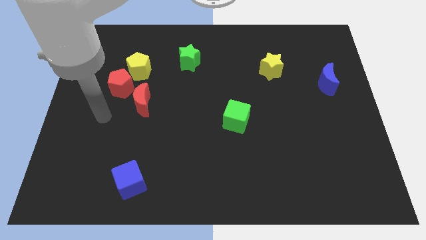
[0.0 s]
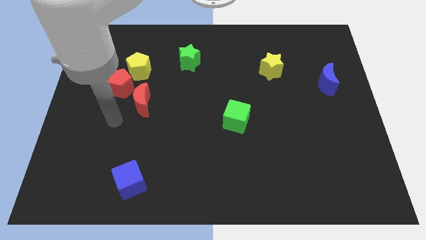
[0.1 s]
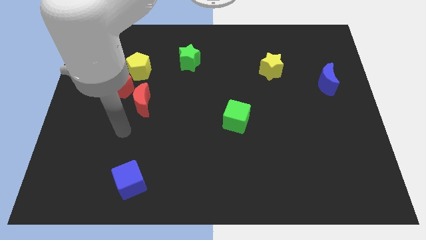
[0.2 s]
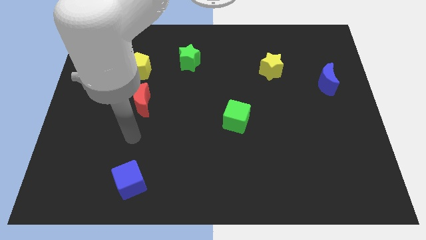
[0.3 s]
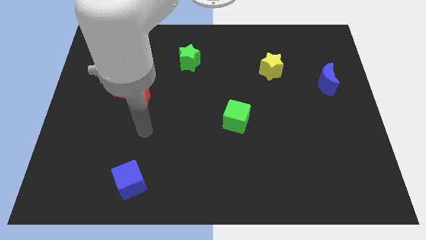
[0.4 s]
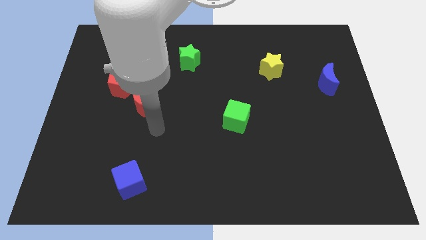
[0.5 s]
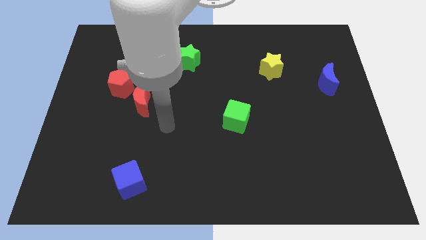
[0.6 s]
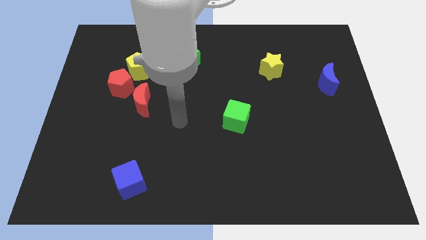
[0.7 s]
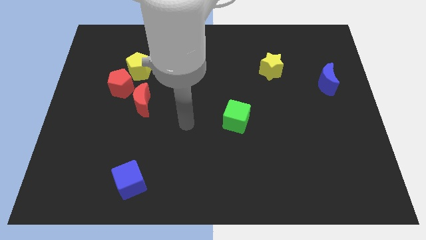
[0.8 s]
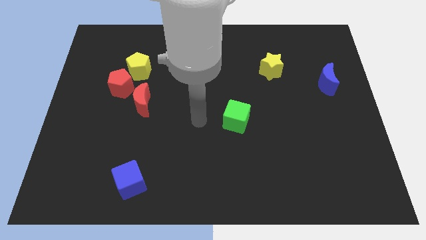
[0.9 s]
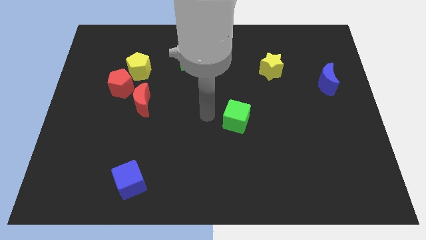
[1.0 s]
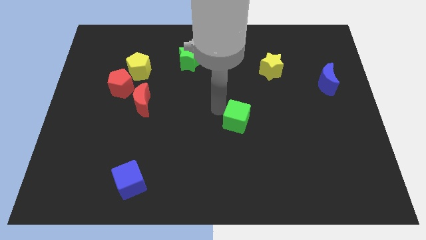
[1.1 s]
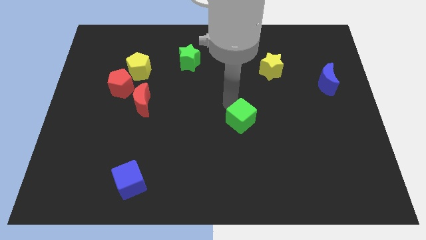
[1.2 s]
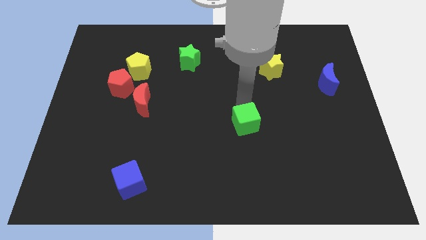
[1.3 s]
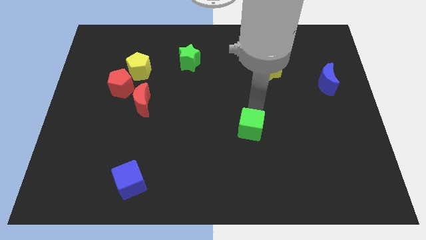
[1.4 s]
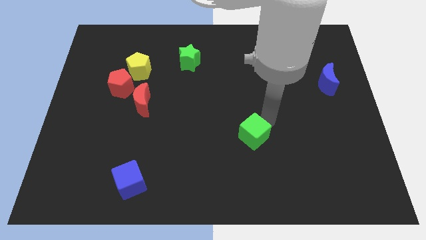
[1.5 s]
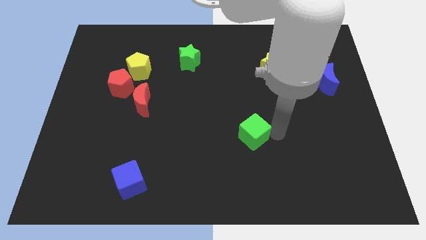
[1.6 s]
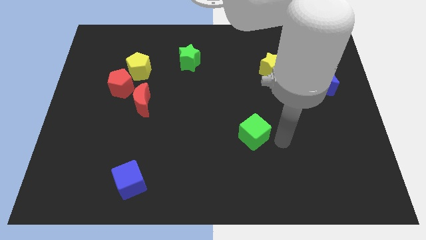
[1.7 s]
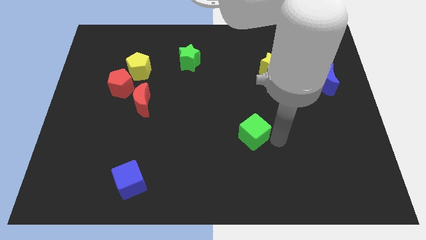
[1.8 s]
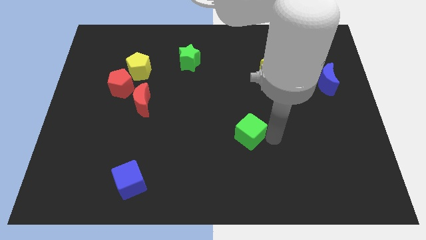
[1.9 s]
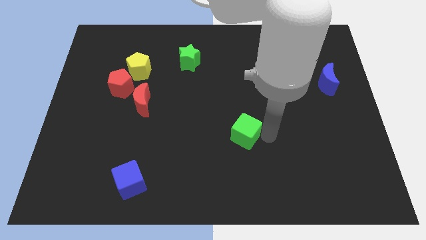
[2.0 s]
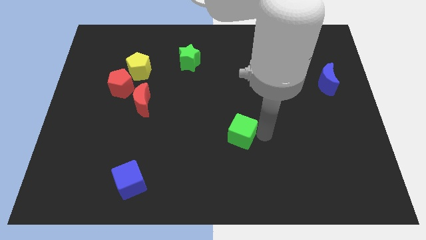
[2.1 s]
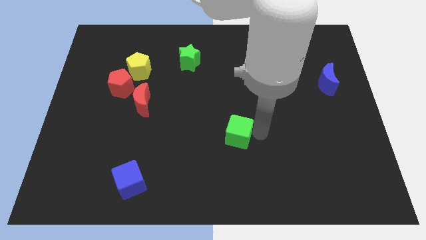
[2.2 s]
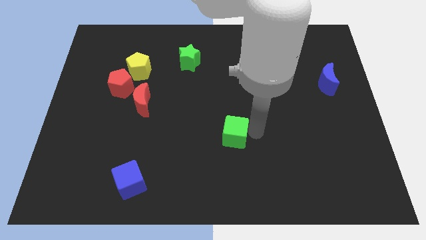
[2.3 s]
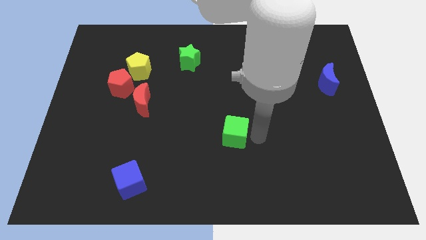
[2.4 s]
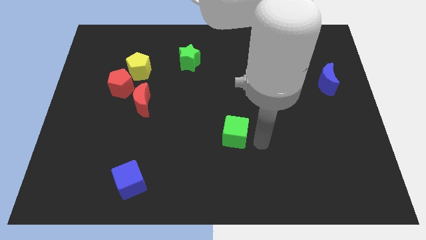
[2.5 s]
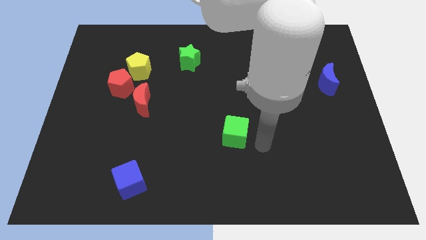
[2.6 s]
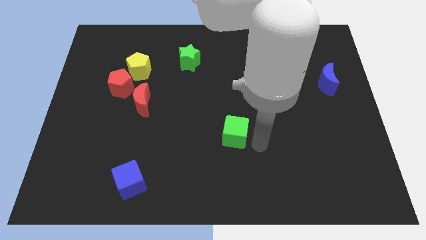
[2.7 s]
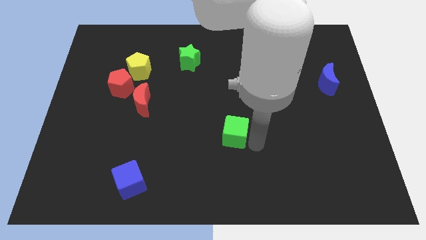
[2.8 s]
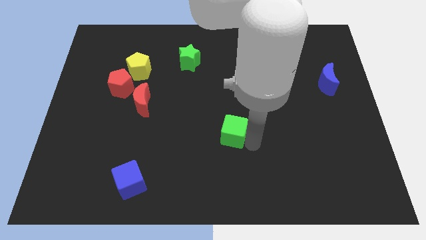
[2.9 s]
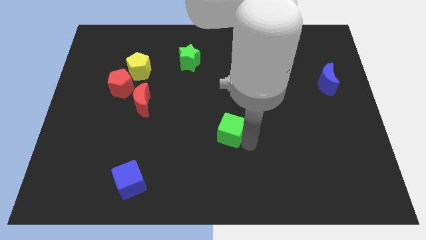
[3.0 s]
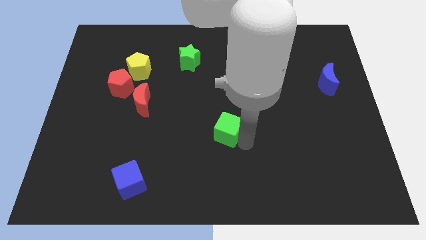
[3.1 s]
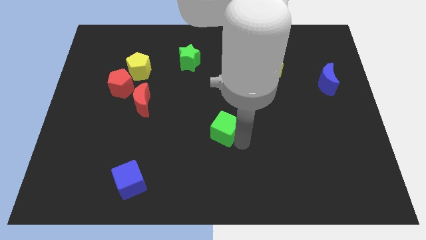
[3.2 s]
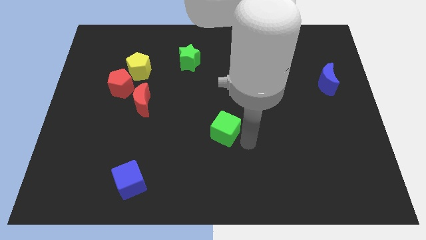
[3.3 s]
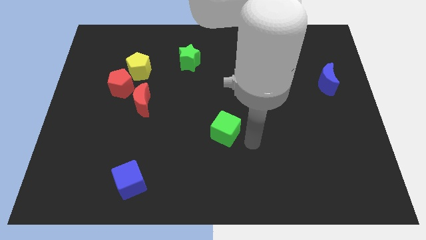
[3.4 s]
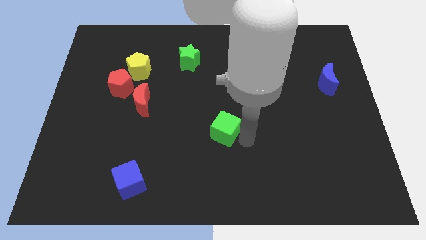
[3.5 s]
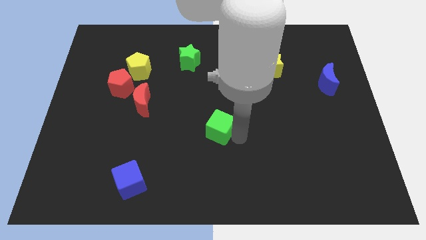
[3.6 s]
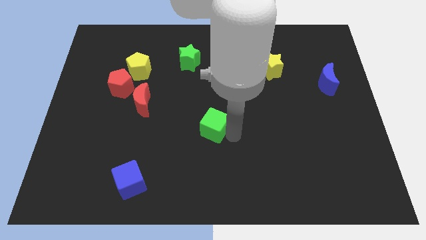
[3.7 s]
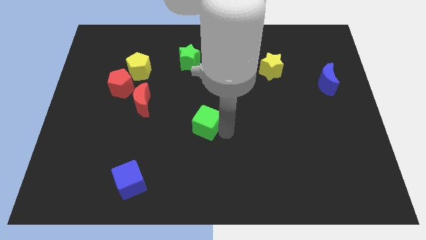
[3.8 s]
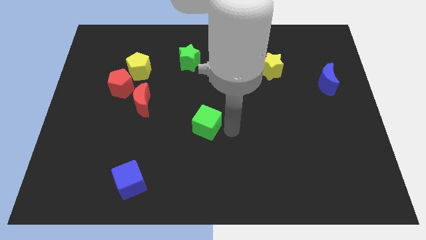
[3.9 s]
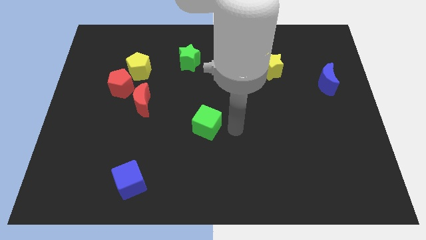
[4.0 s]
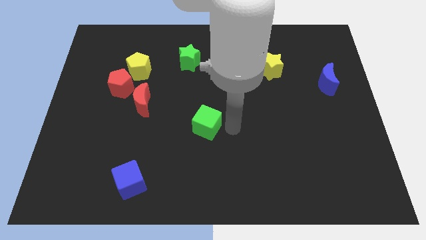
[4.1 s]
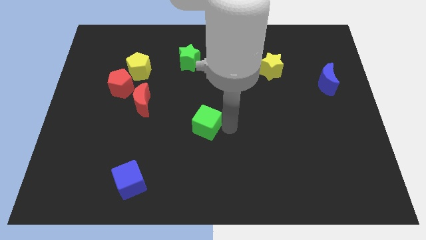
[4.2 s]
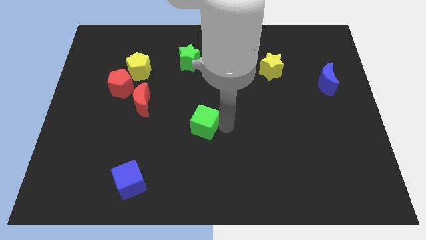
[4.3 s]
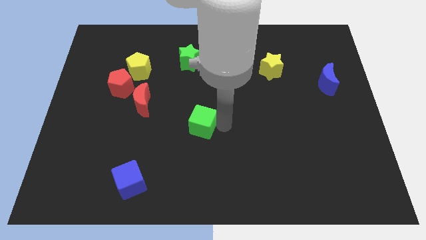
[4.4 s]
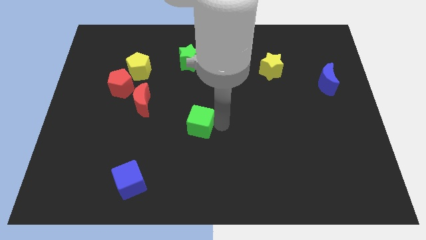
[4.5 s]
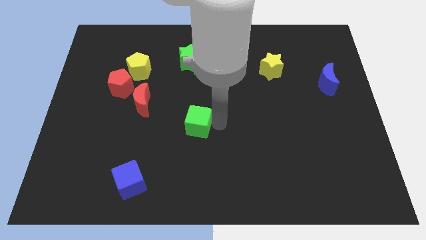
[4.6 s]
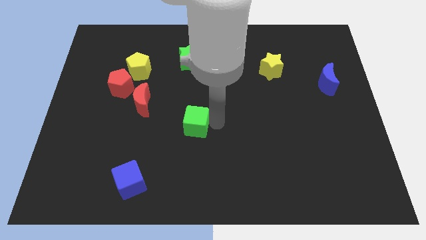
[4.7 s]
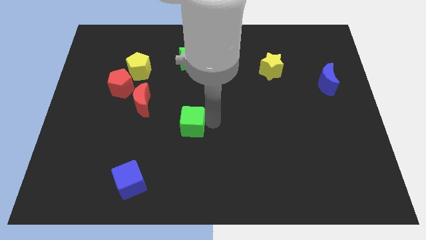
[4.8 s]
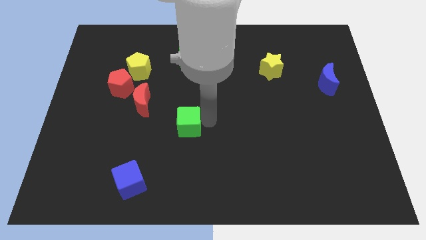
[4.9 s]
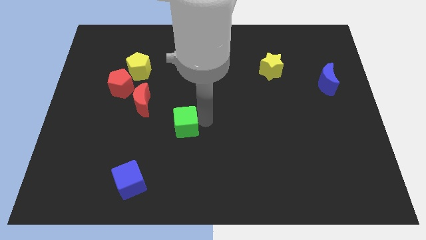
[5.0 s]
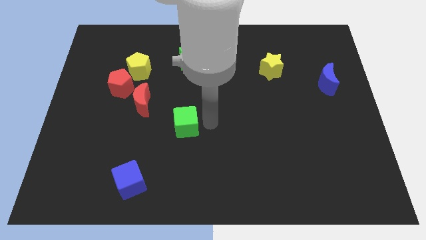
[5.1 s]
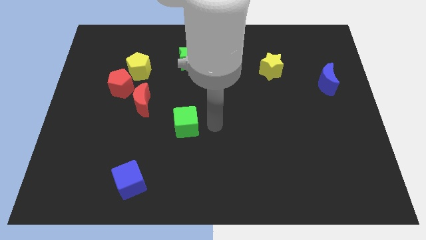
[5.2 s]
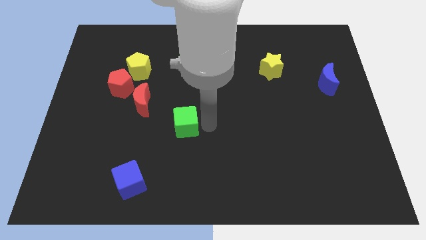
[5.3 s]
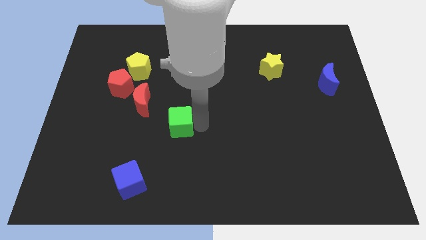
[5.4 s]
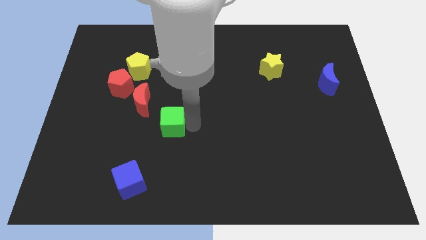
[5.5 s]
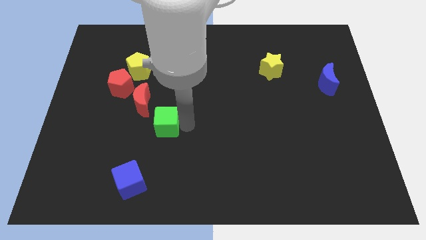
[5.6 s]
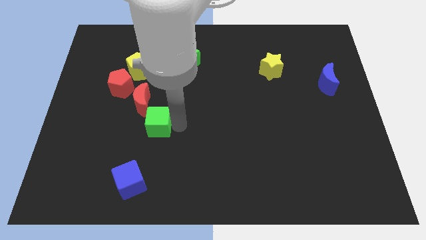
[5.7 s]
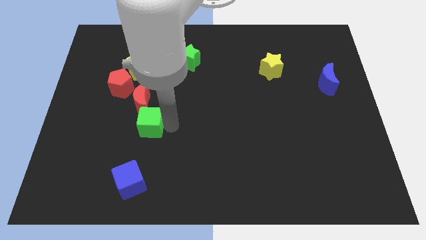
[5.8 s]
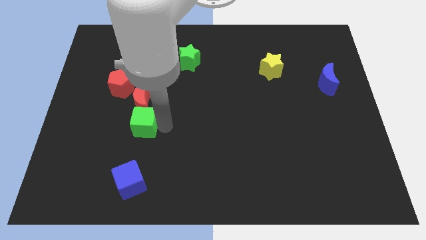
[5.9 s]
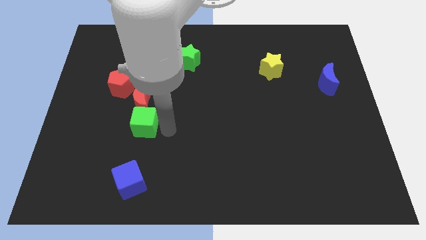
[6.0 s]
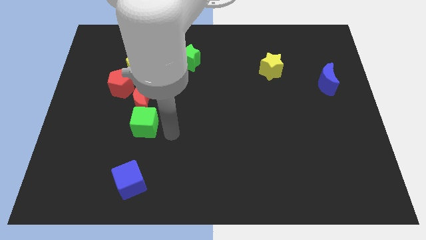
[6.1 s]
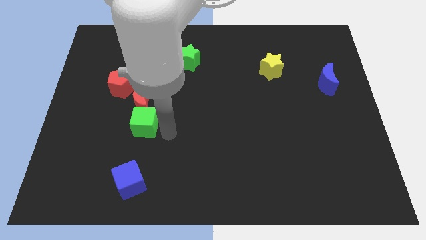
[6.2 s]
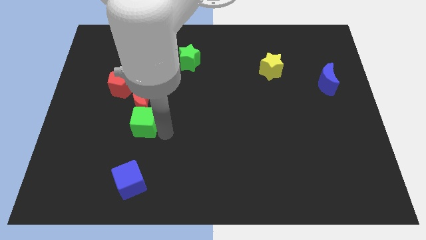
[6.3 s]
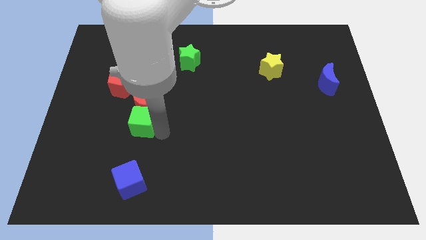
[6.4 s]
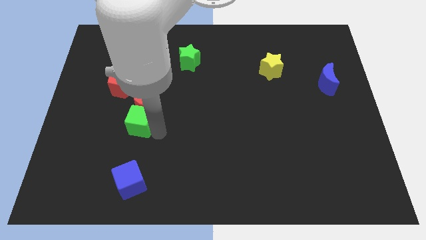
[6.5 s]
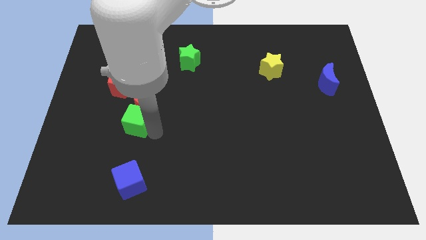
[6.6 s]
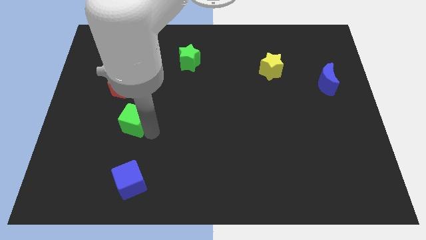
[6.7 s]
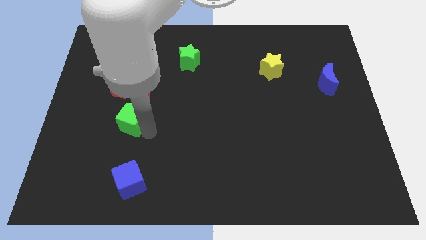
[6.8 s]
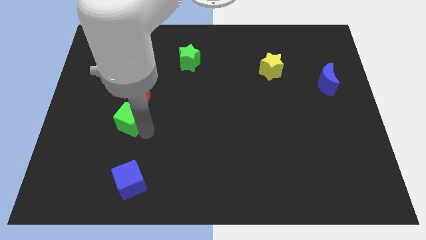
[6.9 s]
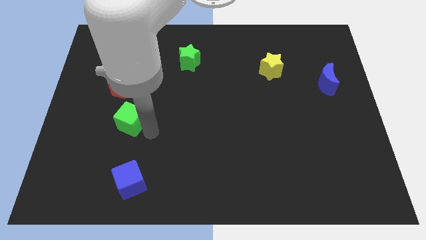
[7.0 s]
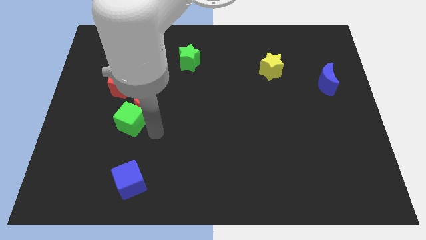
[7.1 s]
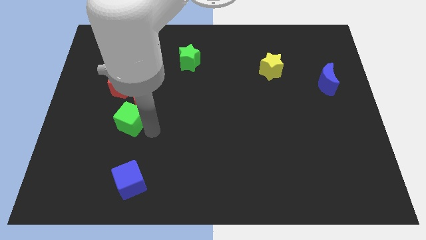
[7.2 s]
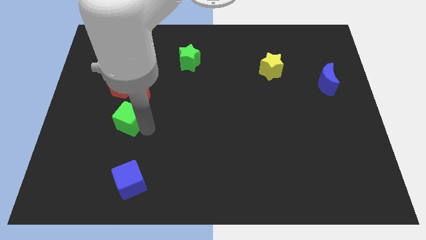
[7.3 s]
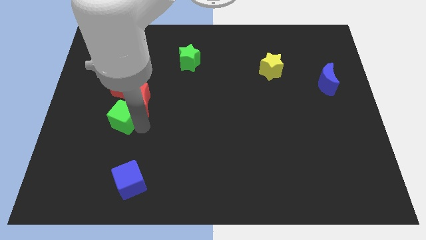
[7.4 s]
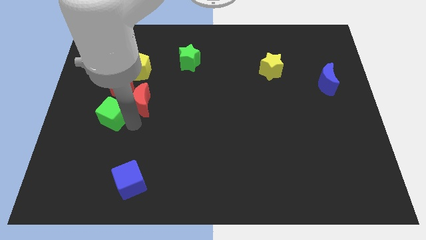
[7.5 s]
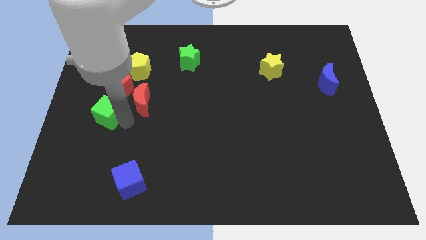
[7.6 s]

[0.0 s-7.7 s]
slide the green cube to the bottom left of the red pentagon
